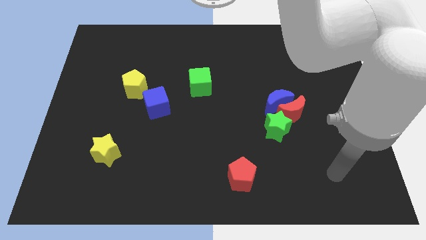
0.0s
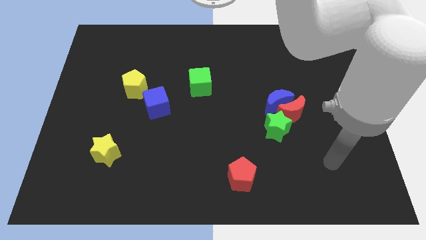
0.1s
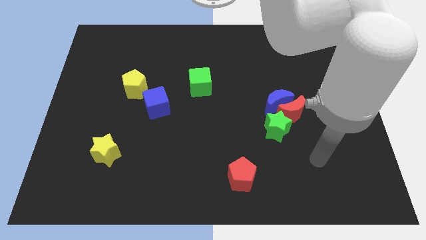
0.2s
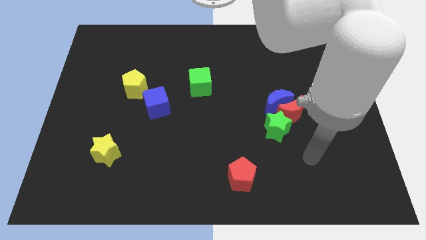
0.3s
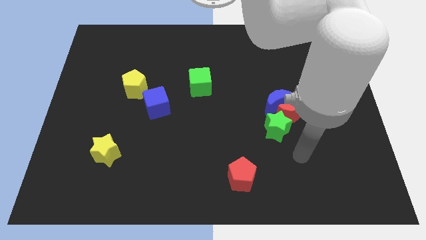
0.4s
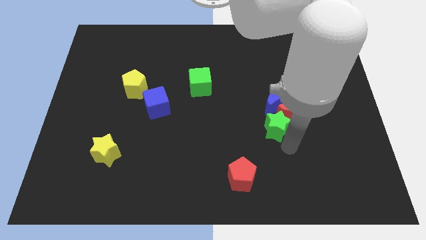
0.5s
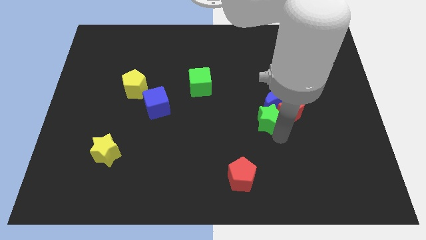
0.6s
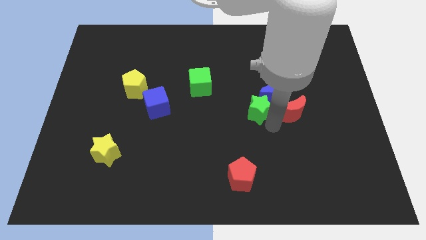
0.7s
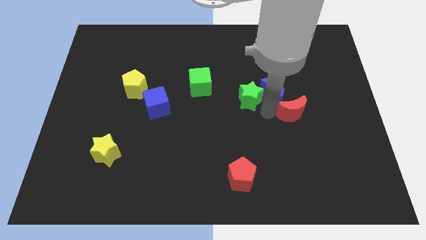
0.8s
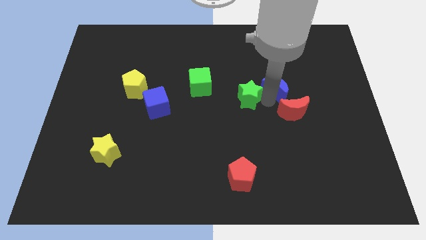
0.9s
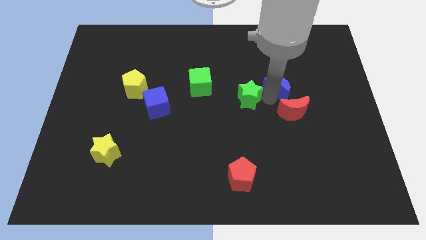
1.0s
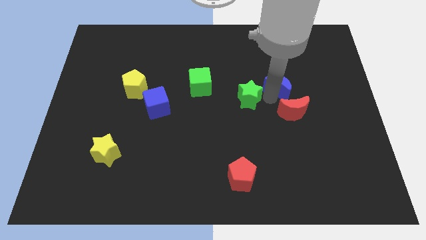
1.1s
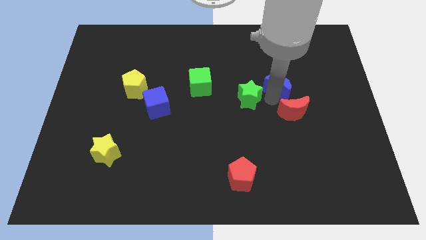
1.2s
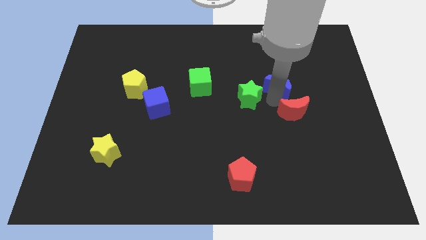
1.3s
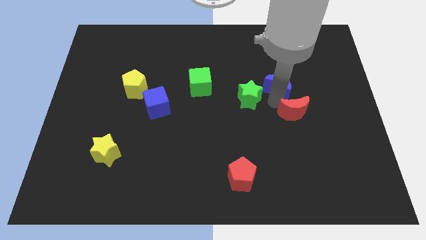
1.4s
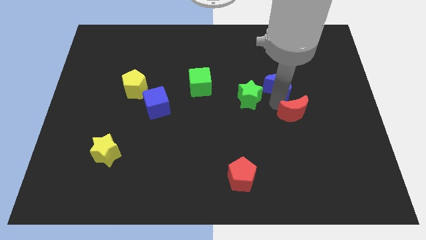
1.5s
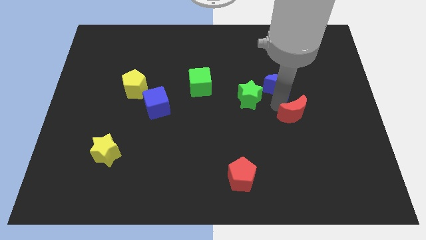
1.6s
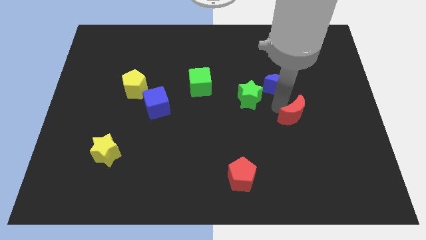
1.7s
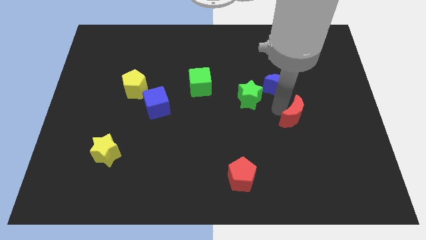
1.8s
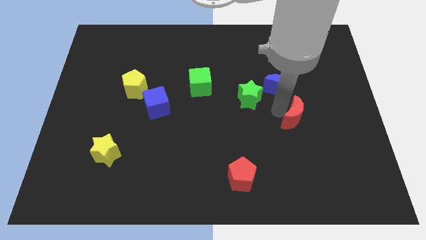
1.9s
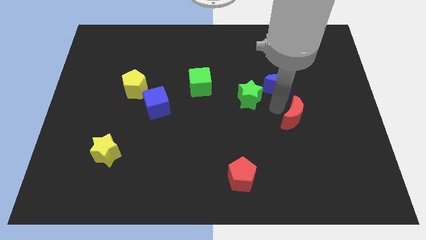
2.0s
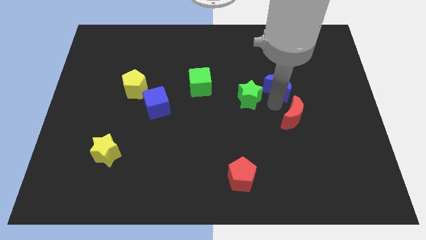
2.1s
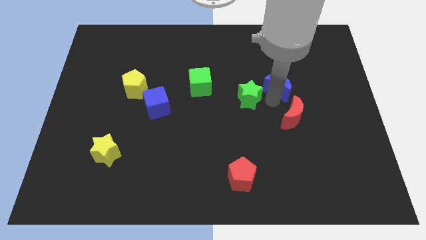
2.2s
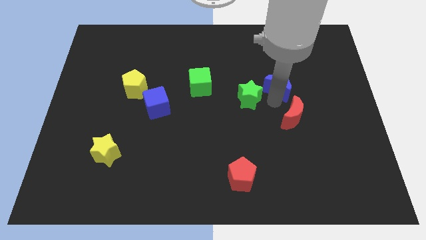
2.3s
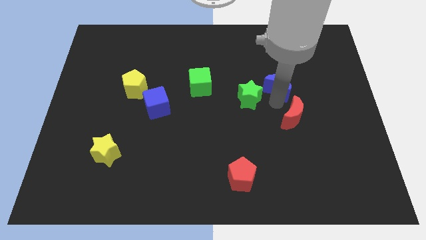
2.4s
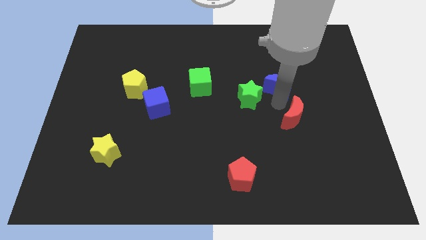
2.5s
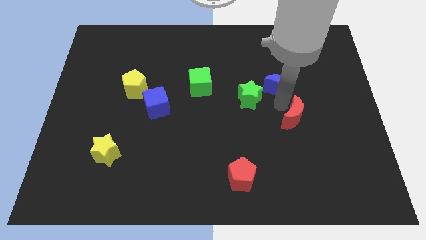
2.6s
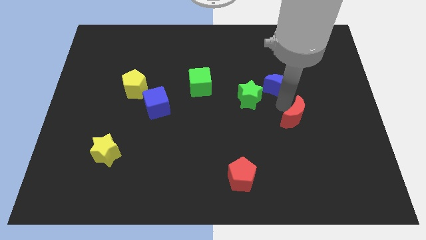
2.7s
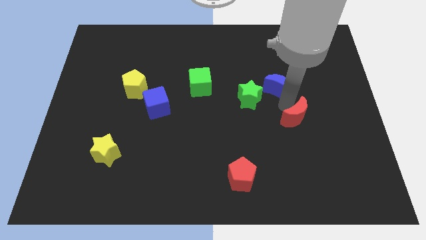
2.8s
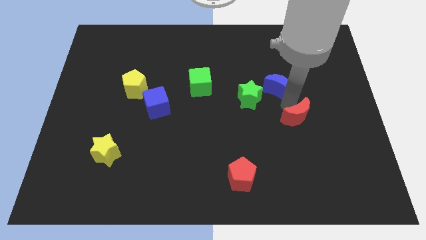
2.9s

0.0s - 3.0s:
separate the red moon from the blue moon and green star

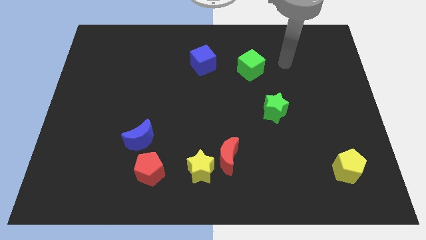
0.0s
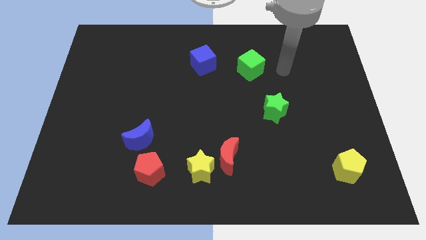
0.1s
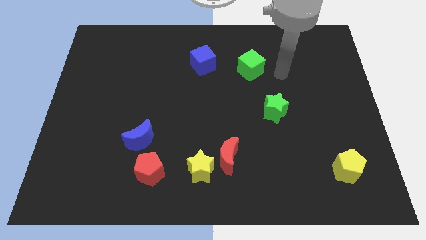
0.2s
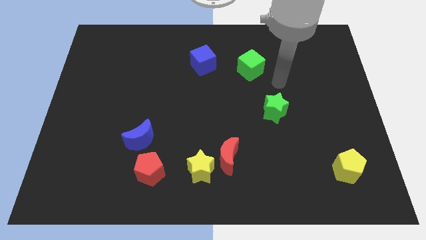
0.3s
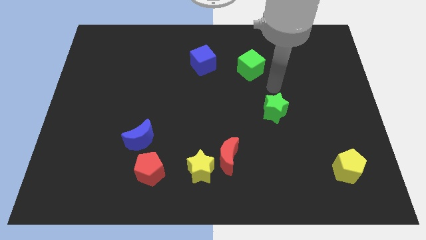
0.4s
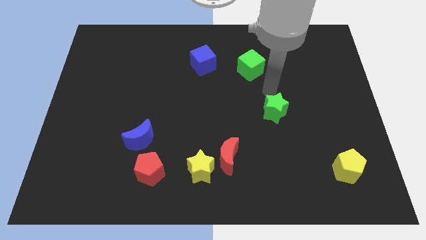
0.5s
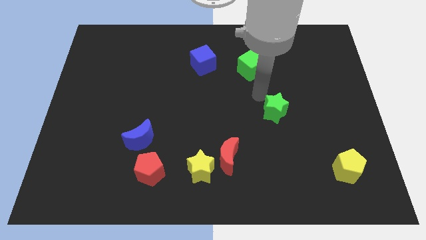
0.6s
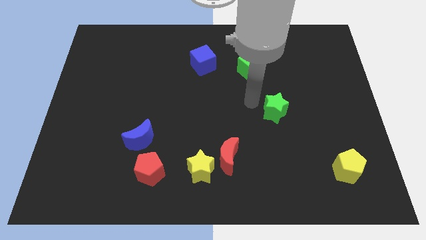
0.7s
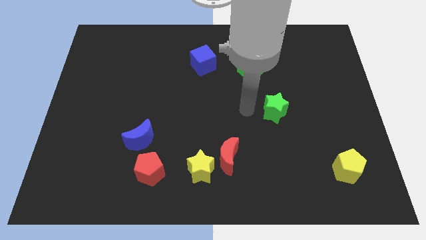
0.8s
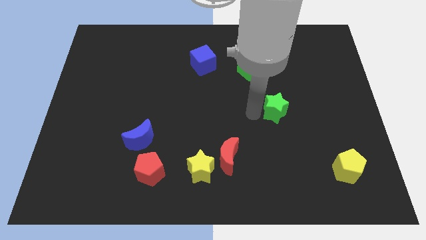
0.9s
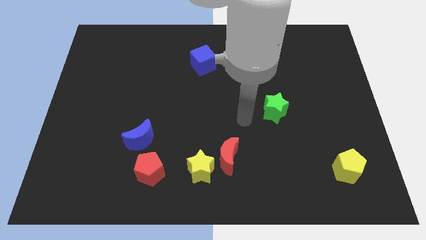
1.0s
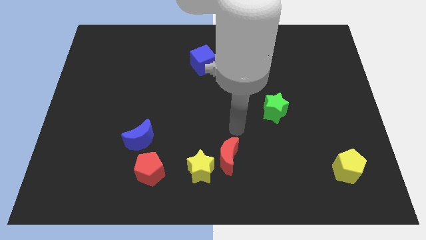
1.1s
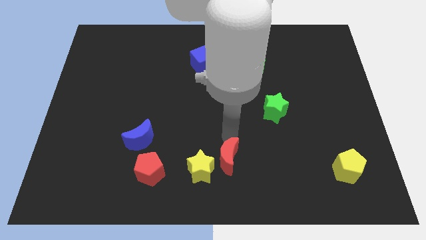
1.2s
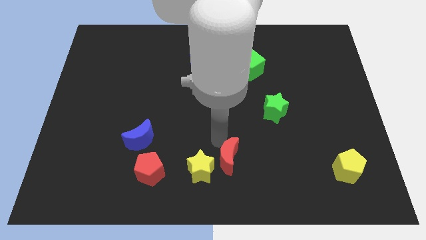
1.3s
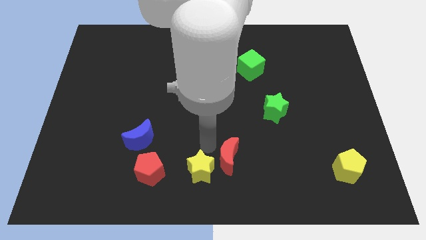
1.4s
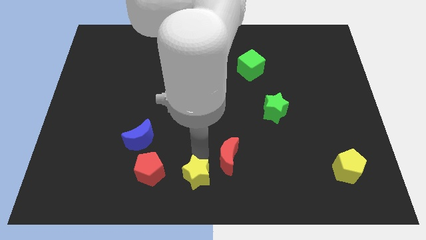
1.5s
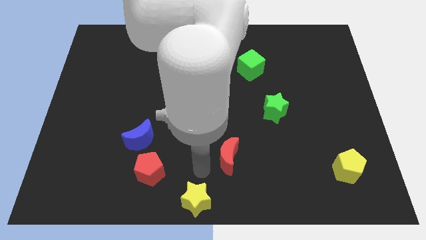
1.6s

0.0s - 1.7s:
separate the red moon from the yellow star

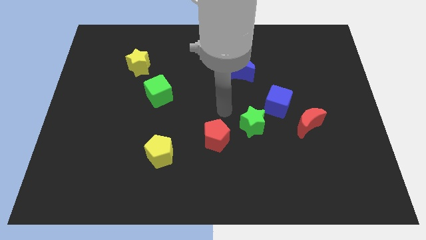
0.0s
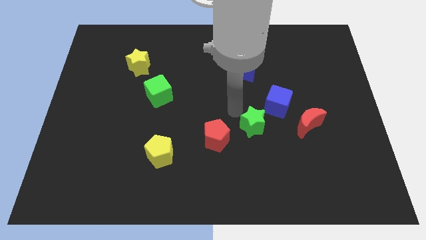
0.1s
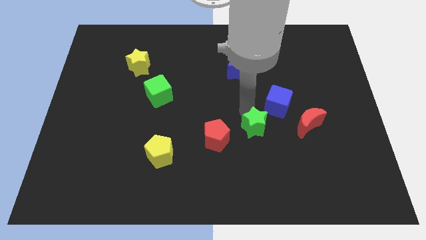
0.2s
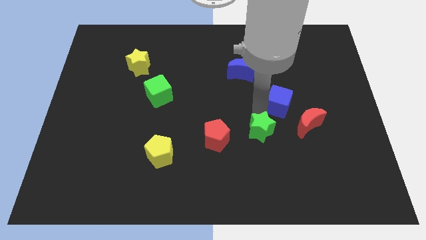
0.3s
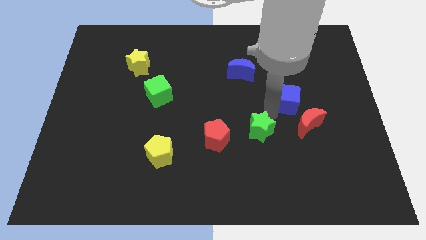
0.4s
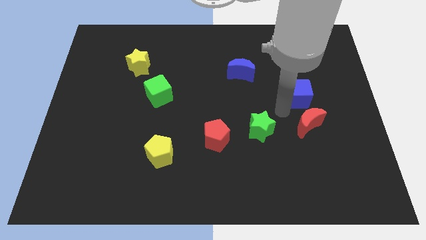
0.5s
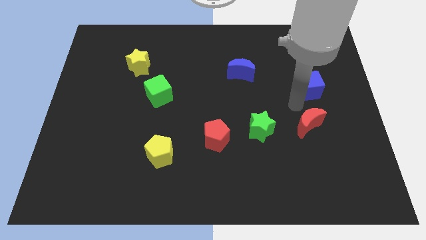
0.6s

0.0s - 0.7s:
move the red moon away from the blue cube

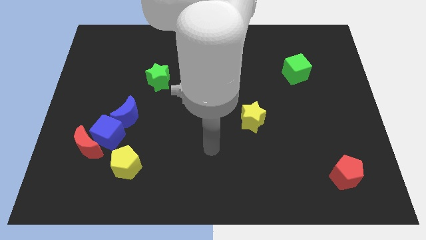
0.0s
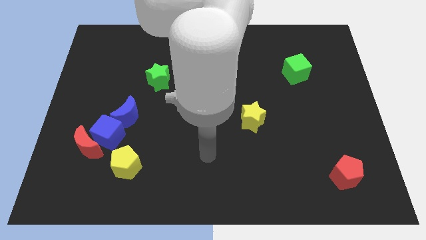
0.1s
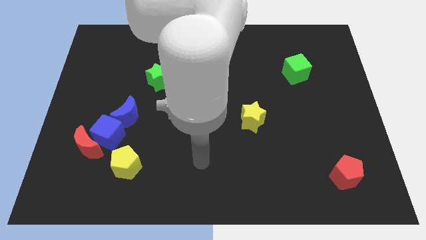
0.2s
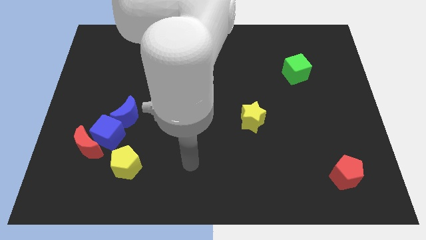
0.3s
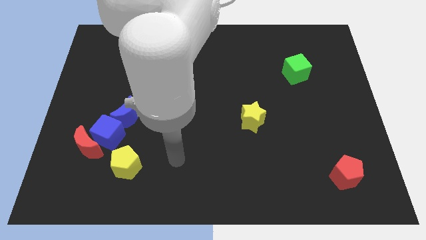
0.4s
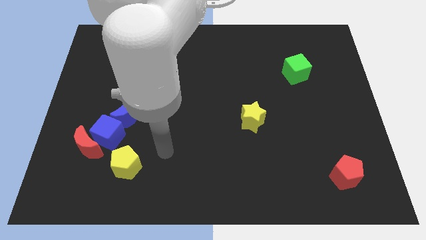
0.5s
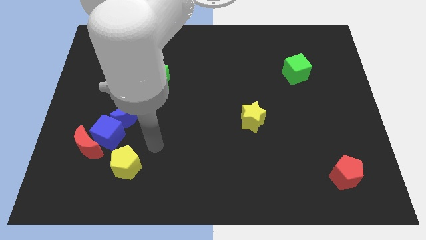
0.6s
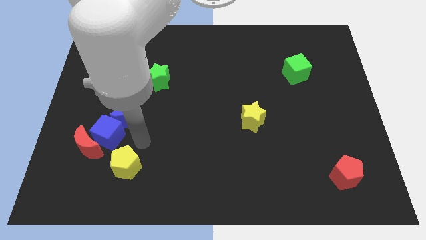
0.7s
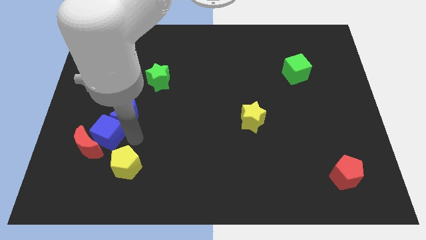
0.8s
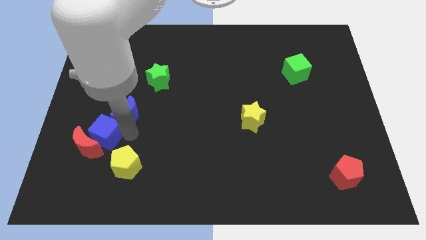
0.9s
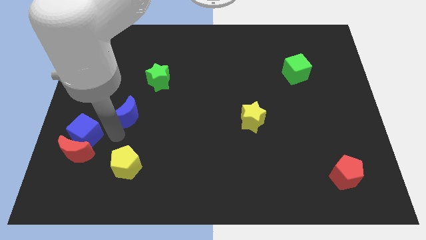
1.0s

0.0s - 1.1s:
move the blue moon away from the blue cube

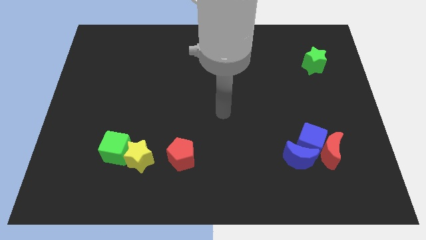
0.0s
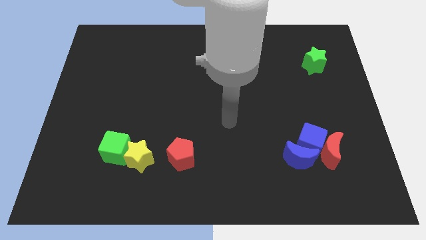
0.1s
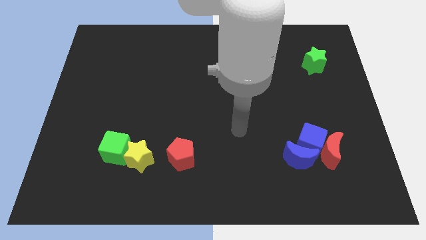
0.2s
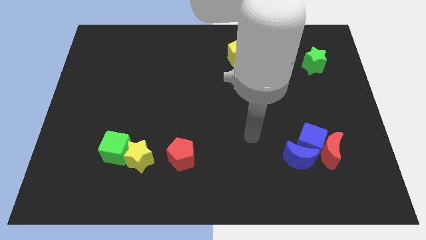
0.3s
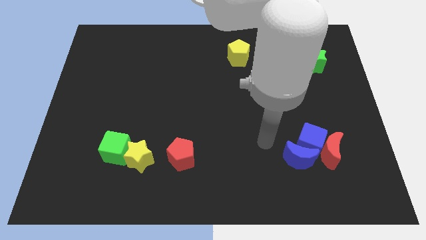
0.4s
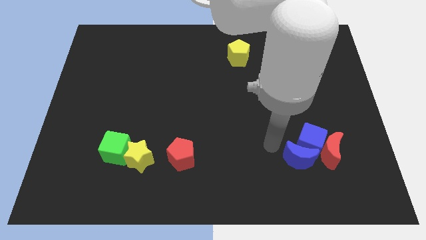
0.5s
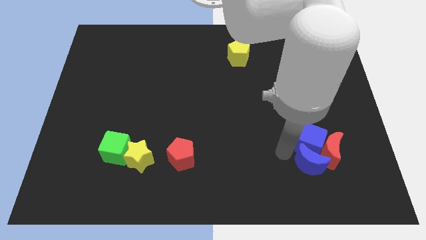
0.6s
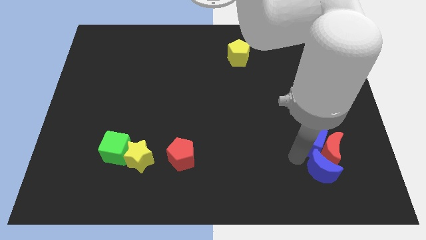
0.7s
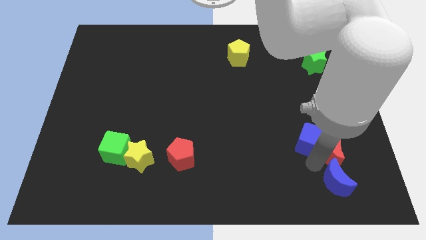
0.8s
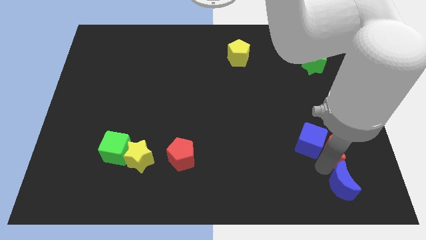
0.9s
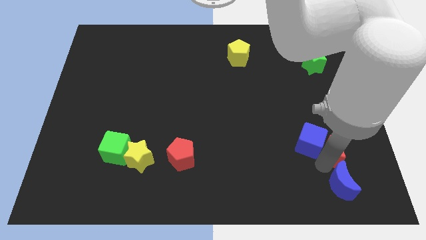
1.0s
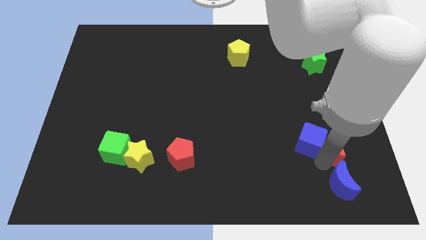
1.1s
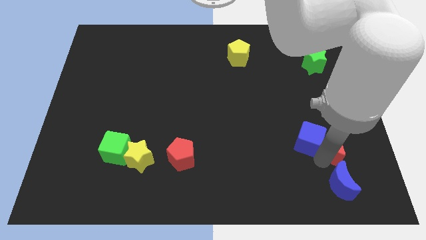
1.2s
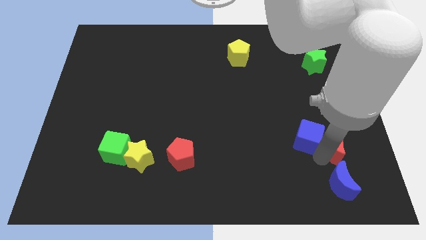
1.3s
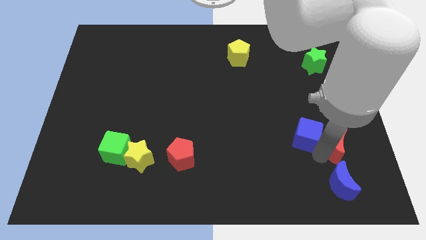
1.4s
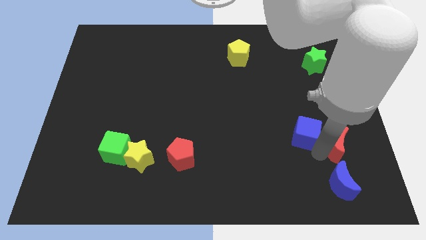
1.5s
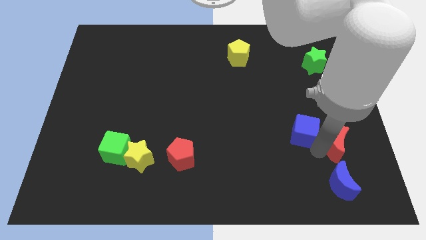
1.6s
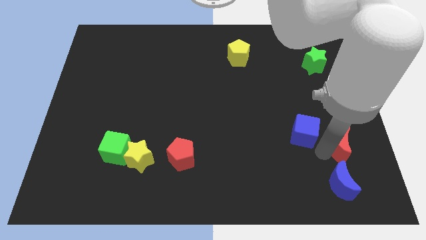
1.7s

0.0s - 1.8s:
pull the blue cube apart from the red moon and blue moon

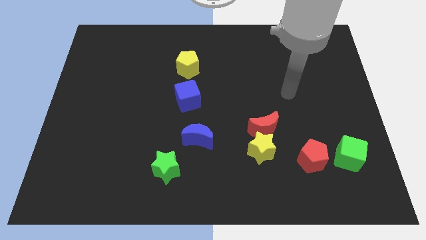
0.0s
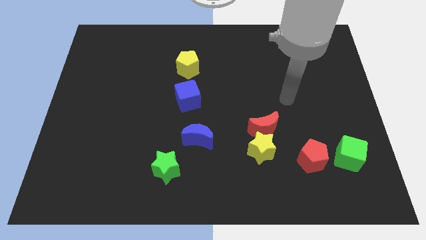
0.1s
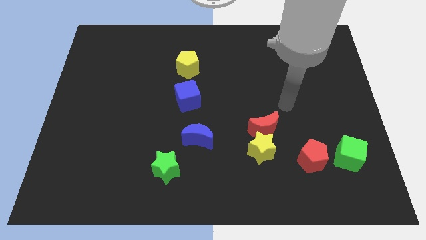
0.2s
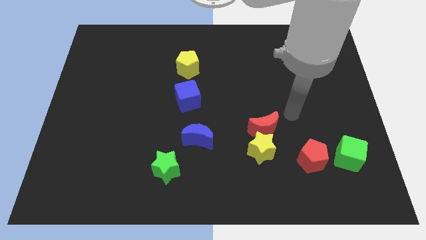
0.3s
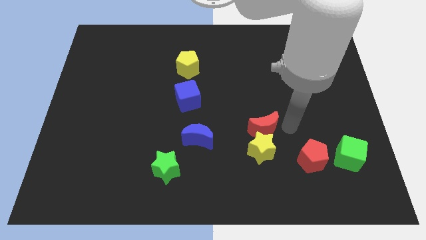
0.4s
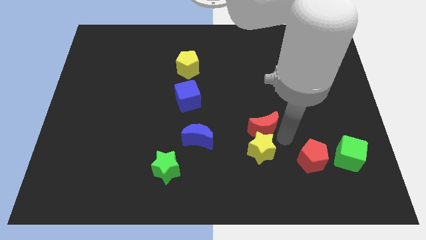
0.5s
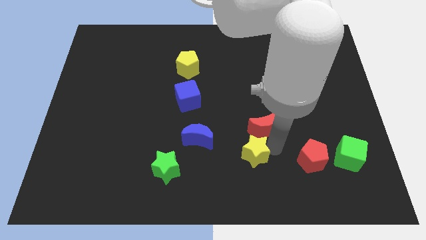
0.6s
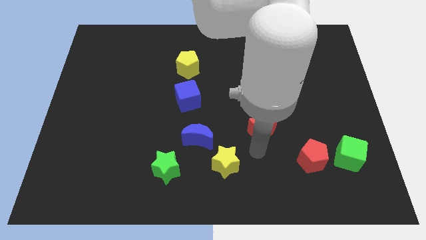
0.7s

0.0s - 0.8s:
pull the red moon apart from the yellow star

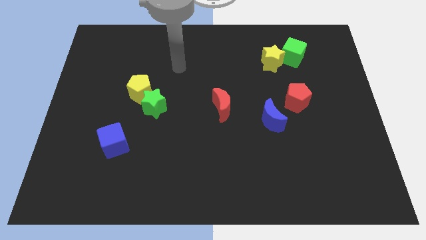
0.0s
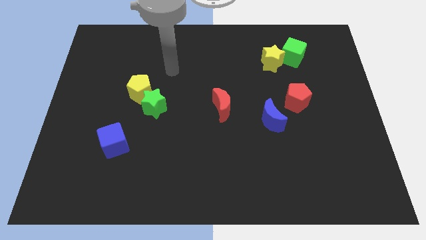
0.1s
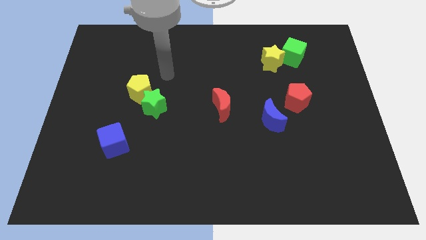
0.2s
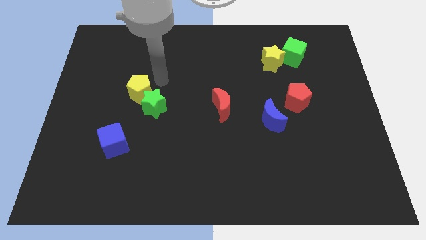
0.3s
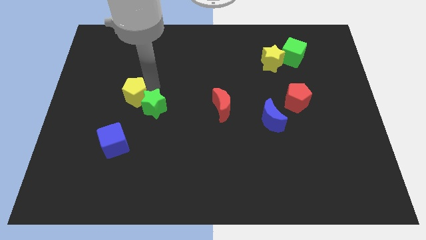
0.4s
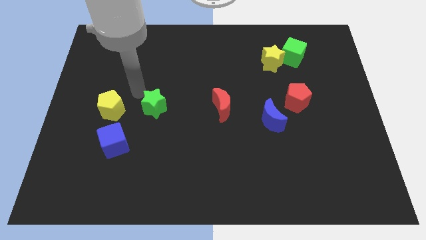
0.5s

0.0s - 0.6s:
separate the green star from the yellow pentagon
